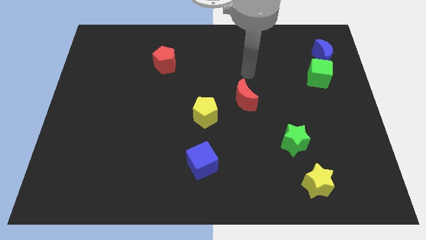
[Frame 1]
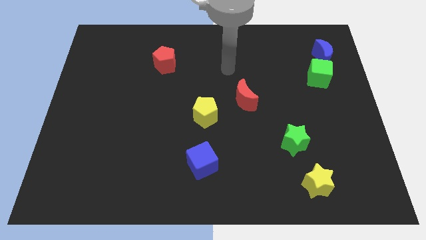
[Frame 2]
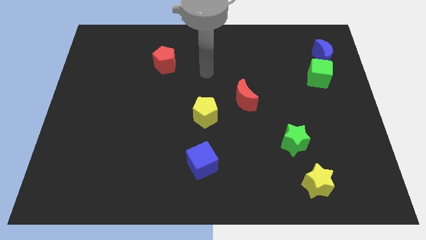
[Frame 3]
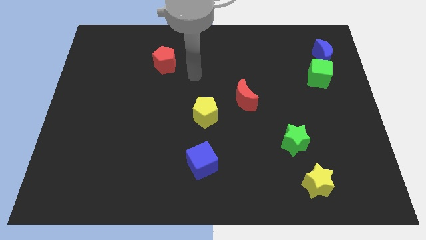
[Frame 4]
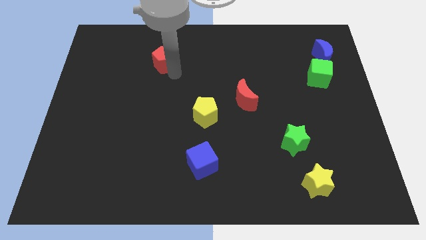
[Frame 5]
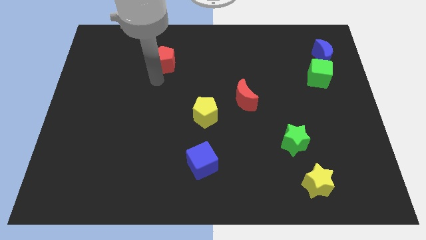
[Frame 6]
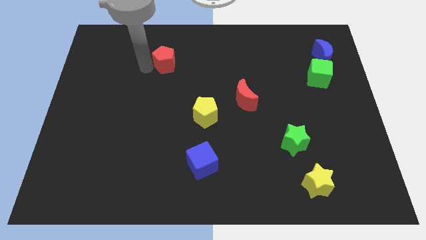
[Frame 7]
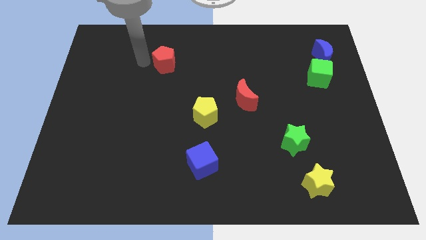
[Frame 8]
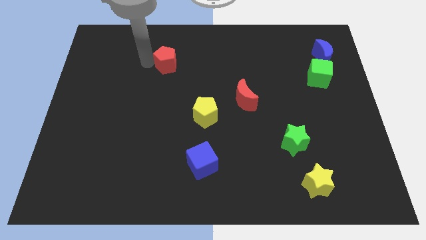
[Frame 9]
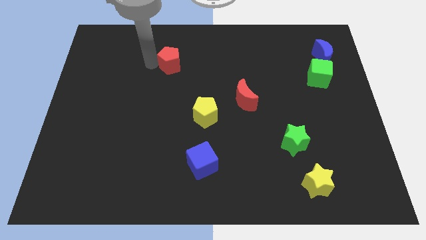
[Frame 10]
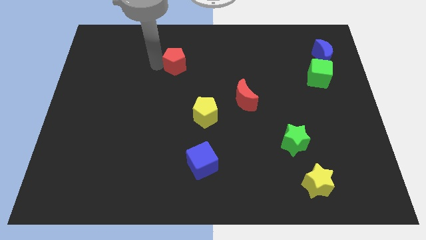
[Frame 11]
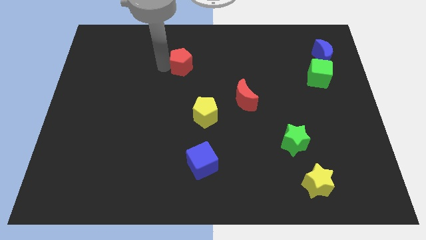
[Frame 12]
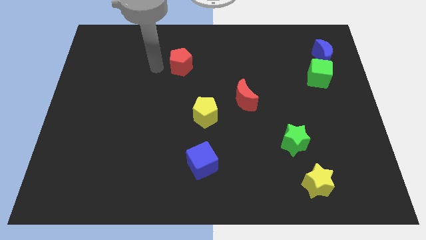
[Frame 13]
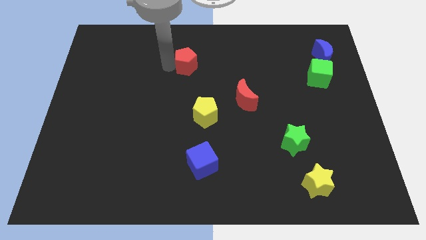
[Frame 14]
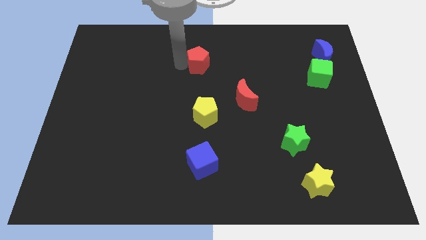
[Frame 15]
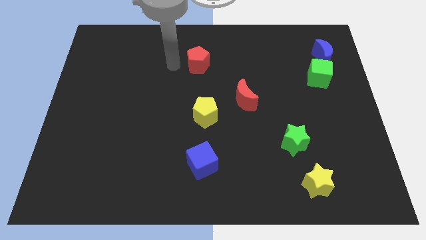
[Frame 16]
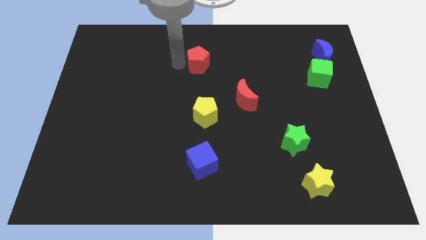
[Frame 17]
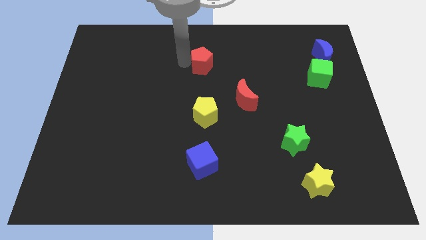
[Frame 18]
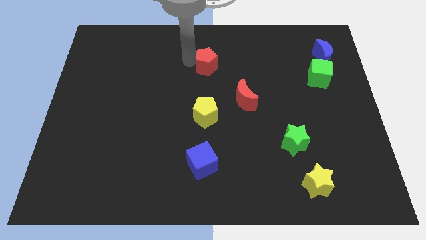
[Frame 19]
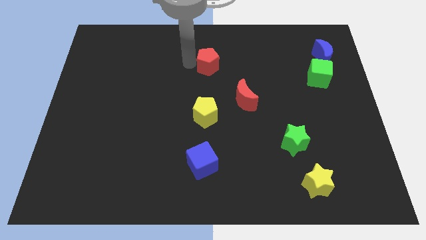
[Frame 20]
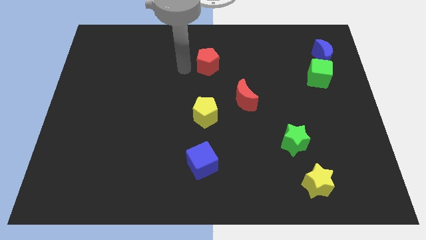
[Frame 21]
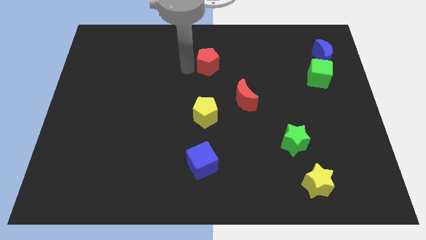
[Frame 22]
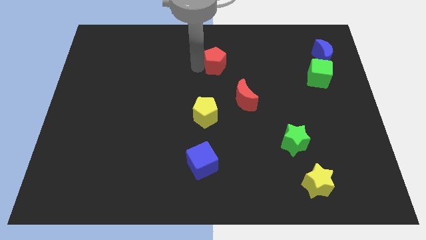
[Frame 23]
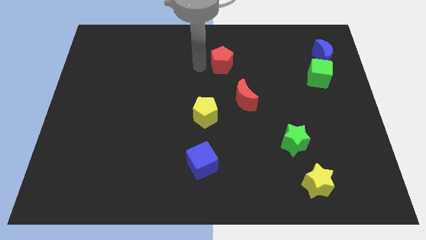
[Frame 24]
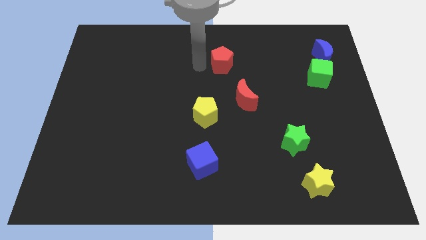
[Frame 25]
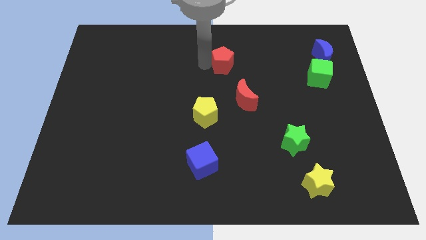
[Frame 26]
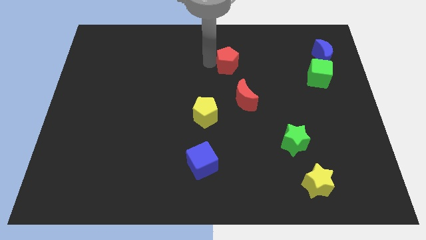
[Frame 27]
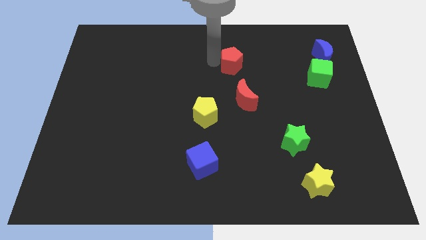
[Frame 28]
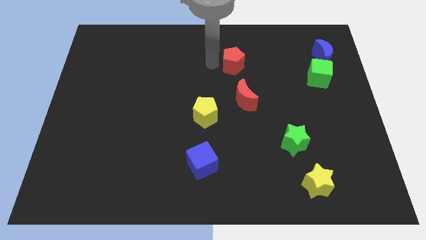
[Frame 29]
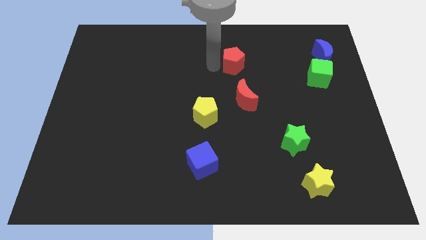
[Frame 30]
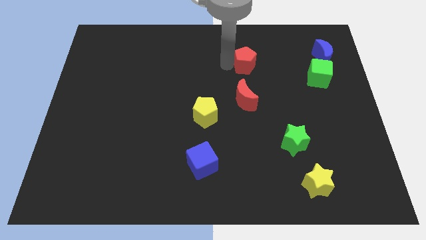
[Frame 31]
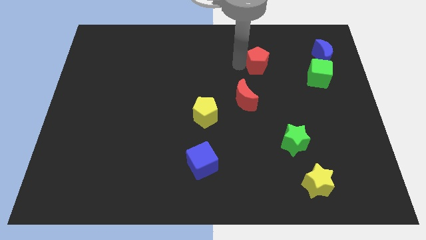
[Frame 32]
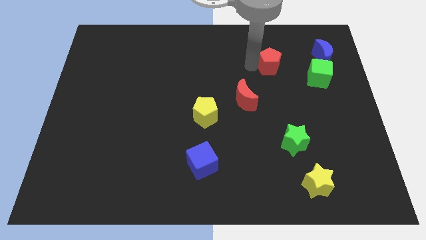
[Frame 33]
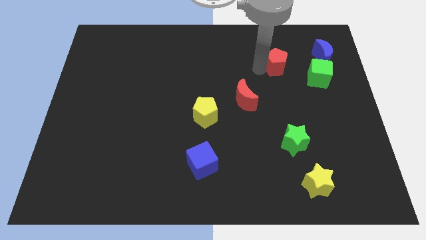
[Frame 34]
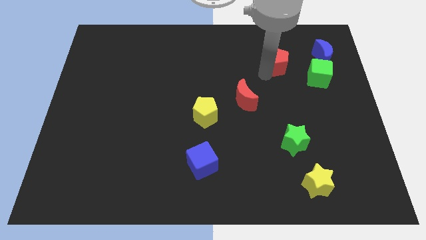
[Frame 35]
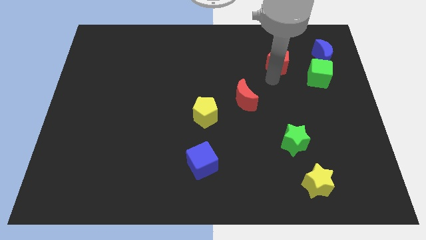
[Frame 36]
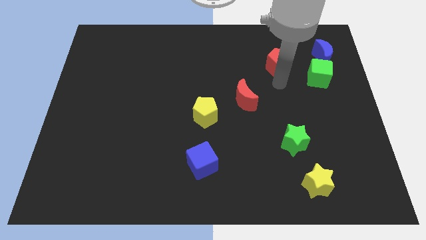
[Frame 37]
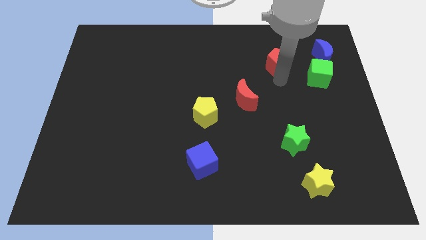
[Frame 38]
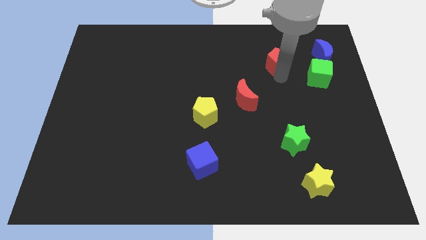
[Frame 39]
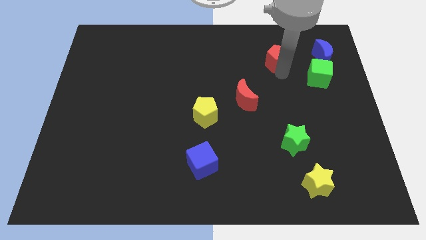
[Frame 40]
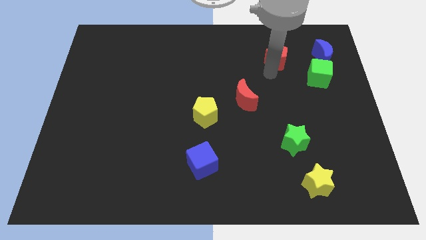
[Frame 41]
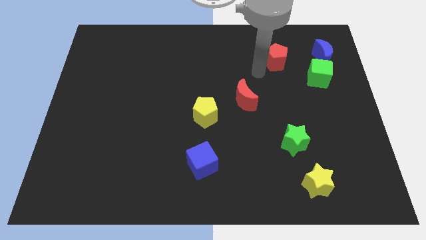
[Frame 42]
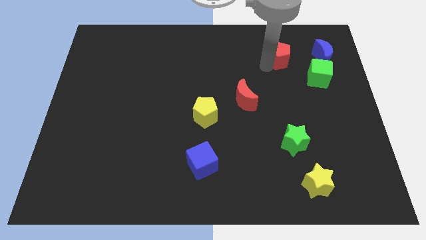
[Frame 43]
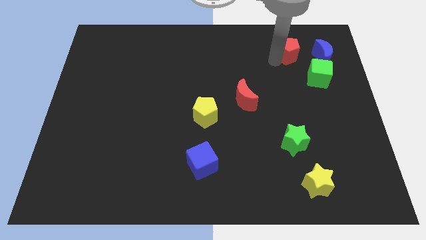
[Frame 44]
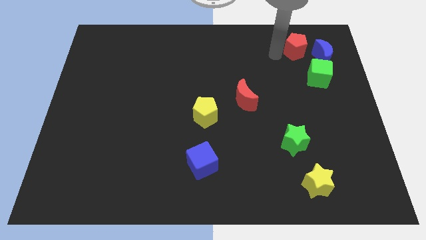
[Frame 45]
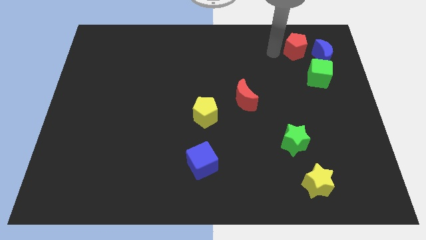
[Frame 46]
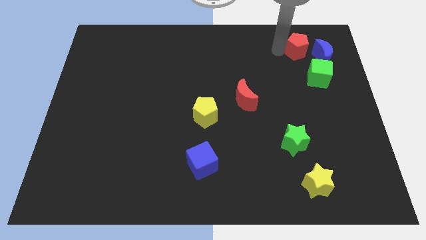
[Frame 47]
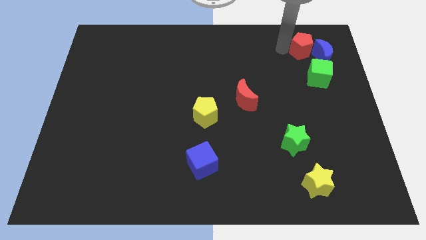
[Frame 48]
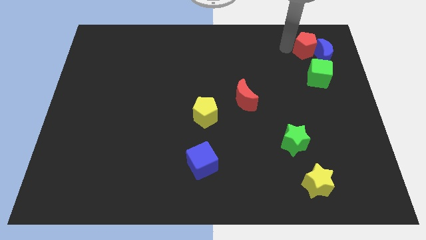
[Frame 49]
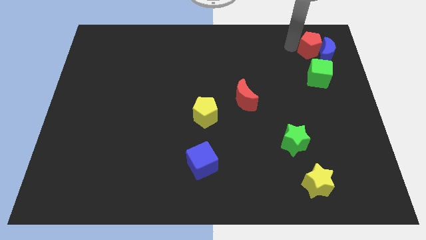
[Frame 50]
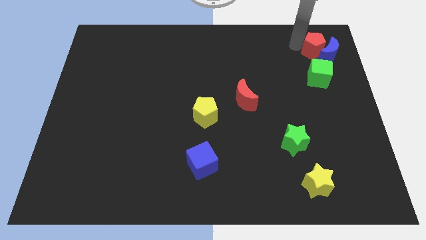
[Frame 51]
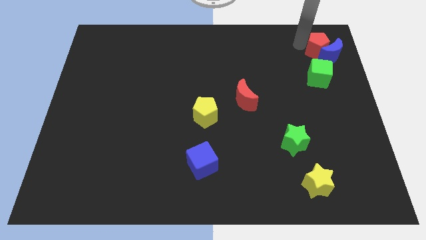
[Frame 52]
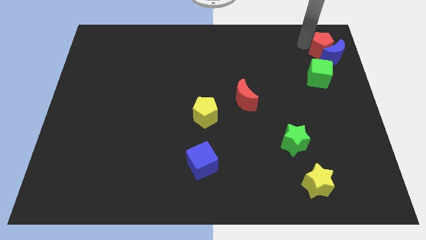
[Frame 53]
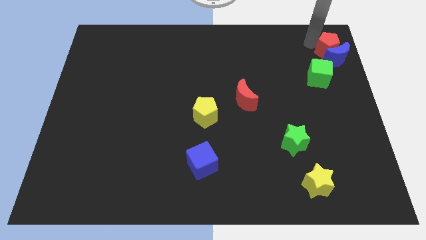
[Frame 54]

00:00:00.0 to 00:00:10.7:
move the red pentagon to the top right corner

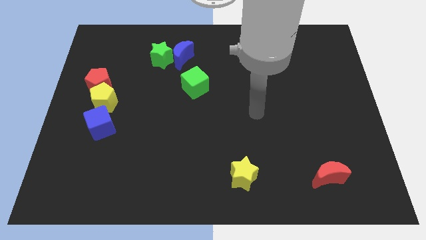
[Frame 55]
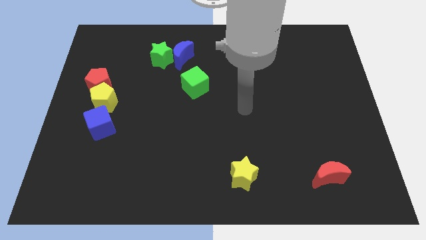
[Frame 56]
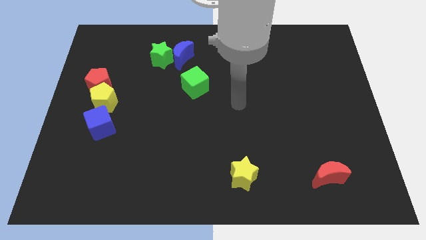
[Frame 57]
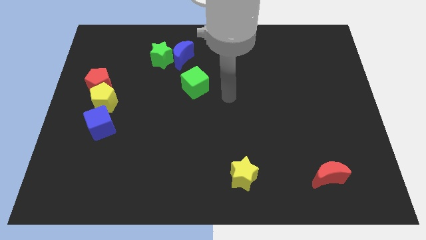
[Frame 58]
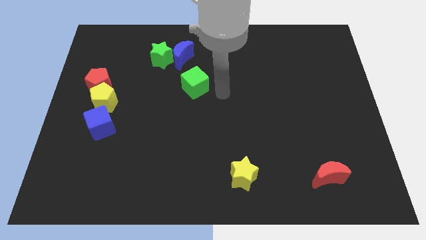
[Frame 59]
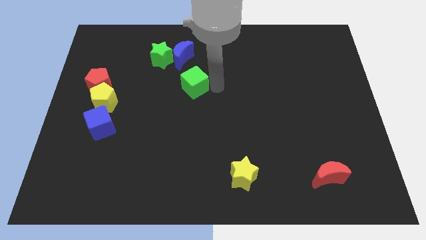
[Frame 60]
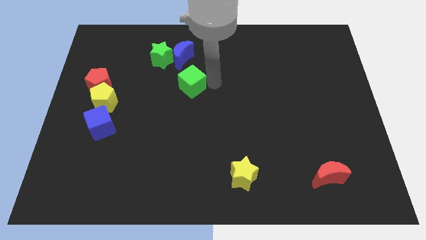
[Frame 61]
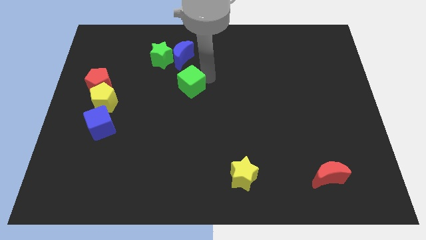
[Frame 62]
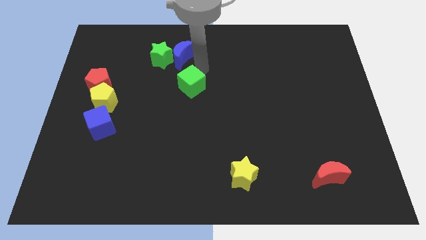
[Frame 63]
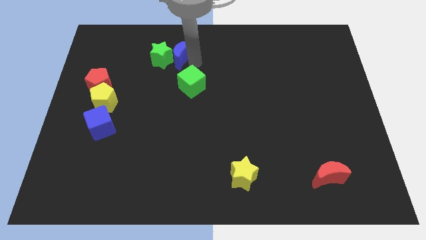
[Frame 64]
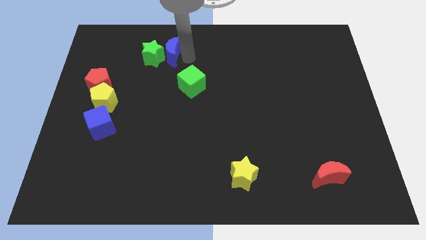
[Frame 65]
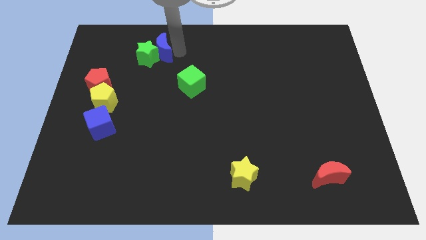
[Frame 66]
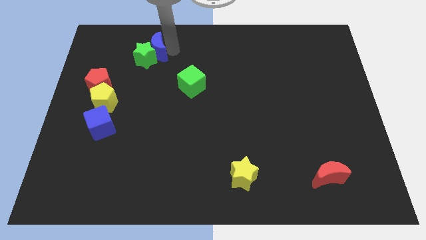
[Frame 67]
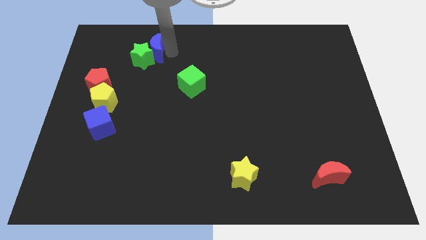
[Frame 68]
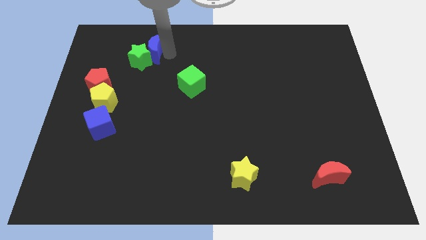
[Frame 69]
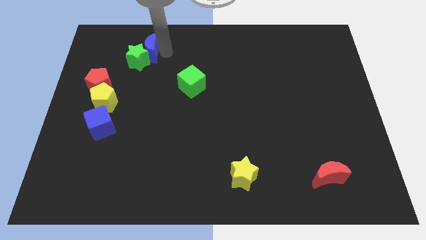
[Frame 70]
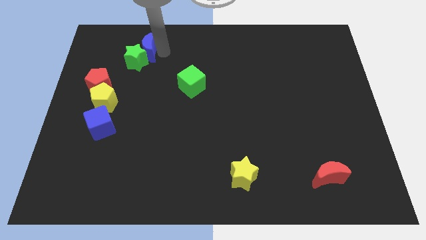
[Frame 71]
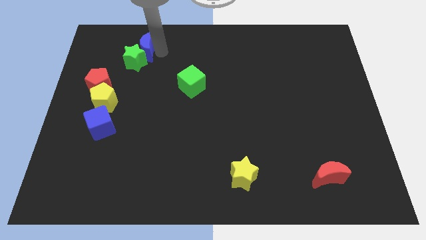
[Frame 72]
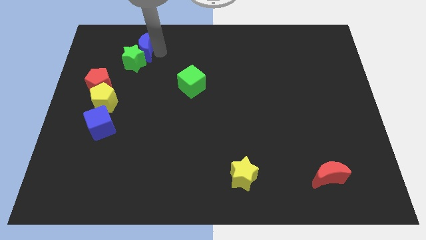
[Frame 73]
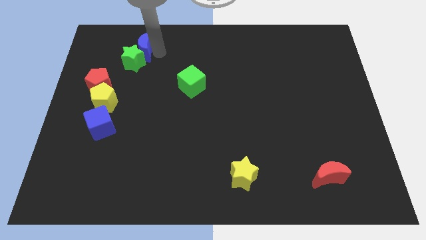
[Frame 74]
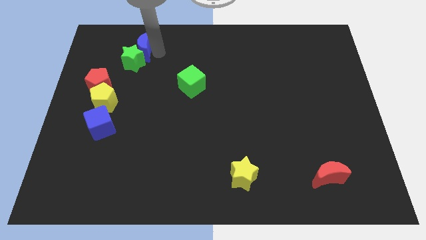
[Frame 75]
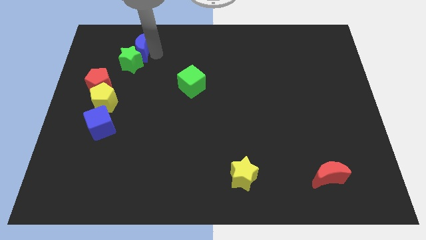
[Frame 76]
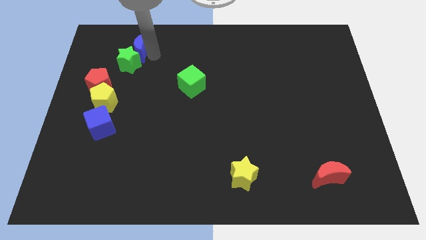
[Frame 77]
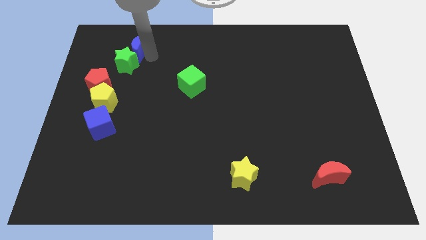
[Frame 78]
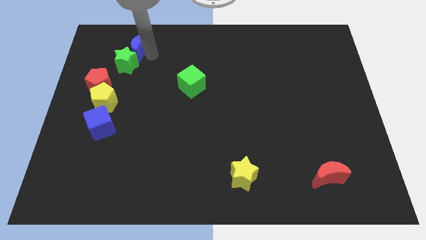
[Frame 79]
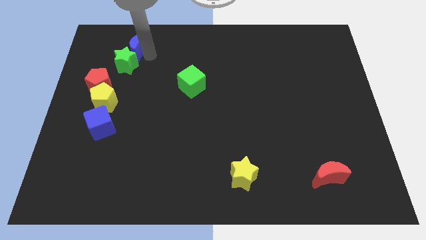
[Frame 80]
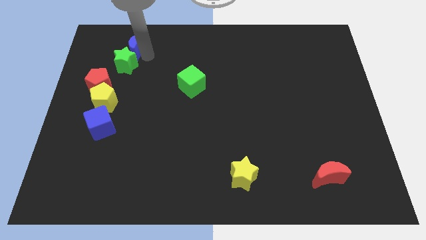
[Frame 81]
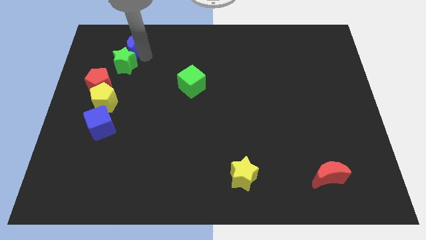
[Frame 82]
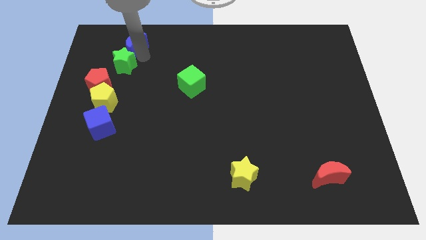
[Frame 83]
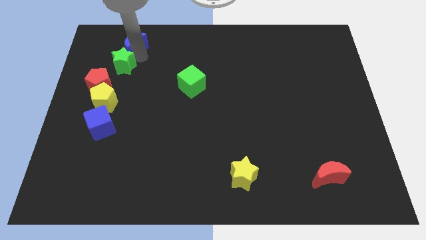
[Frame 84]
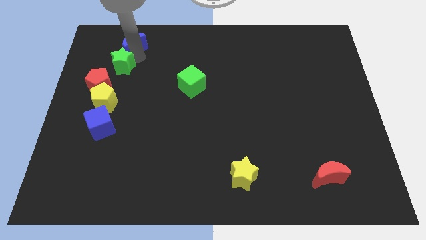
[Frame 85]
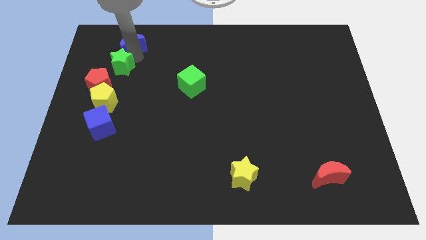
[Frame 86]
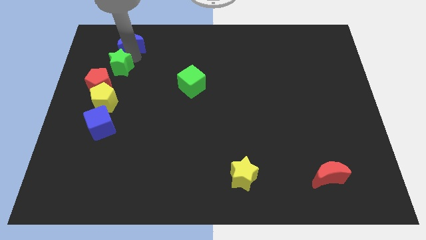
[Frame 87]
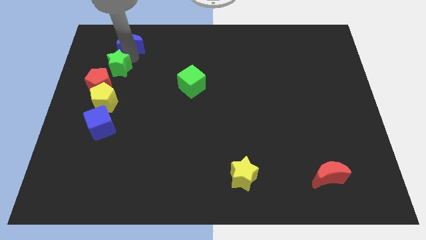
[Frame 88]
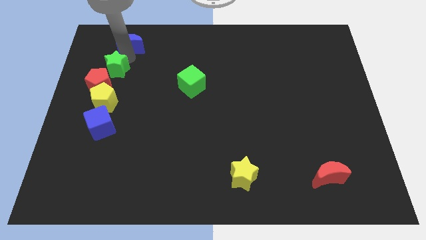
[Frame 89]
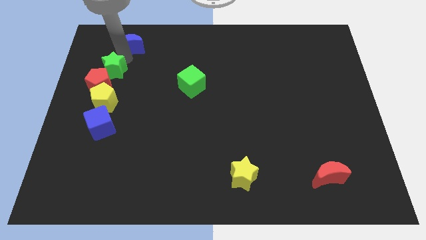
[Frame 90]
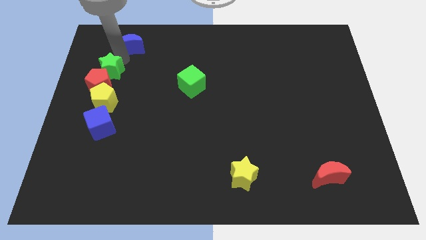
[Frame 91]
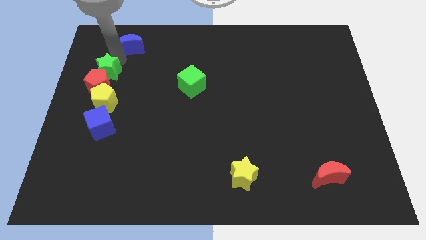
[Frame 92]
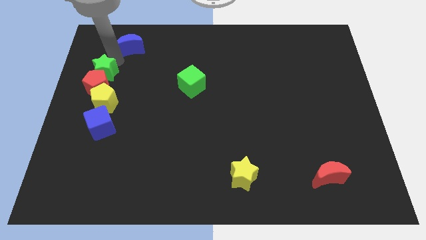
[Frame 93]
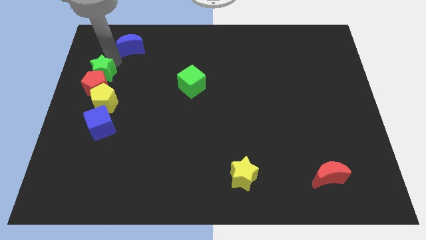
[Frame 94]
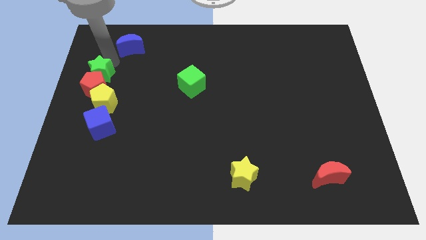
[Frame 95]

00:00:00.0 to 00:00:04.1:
move the green star to the left side
